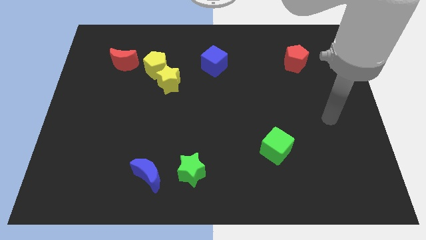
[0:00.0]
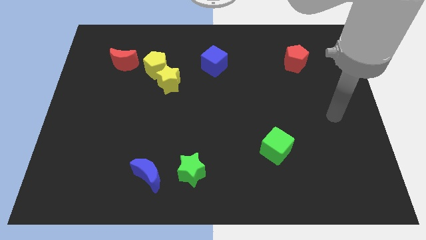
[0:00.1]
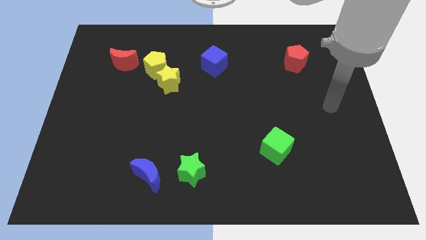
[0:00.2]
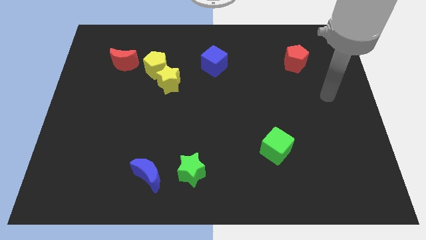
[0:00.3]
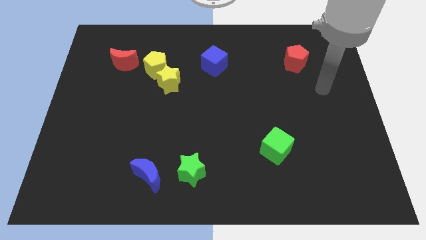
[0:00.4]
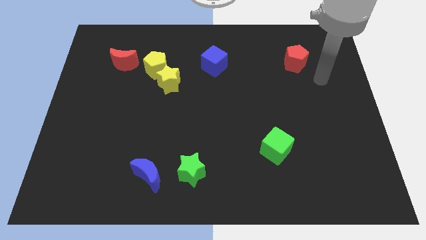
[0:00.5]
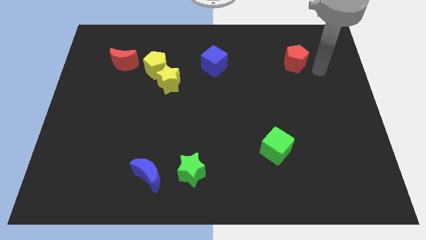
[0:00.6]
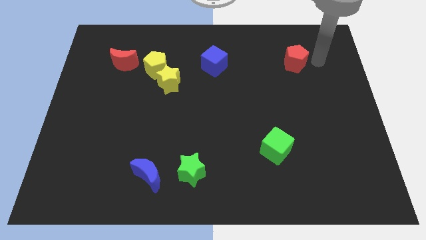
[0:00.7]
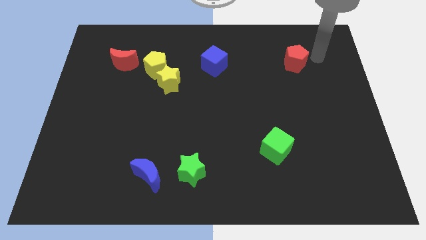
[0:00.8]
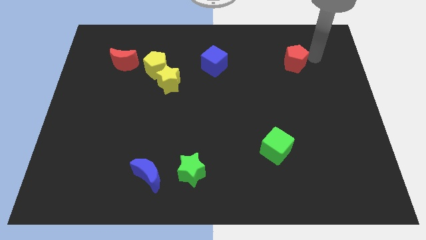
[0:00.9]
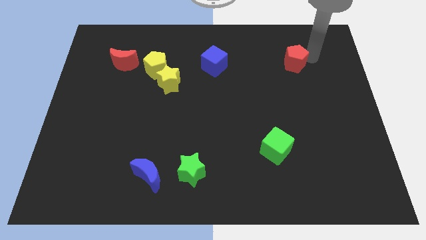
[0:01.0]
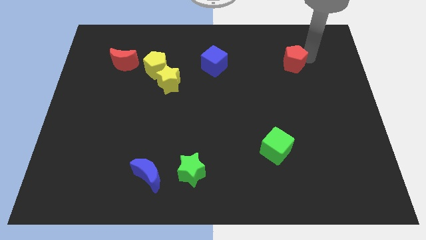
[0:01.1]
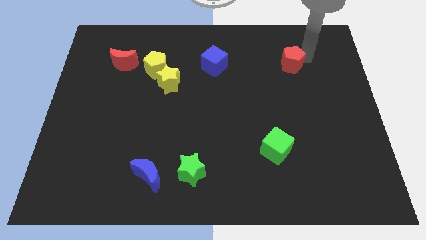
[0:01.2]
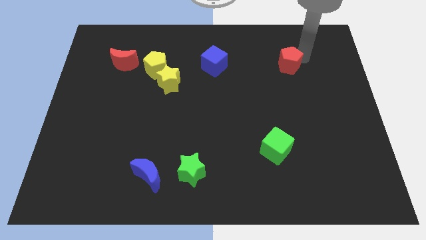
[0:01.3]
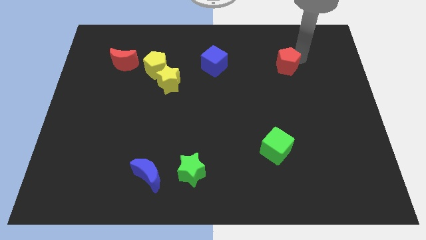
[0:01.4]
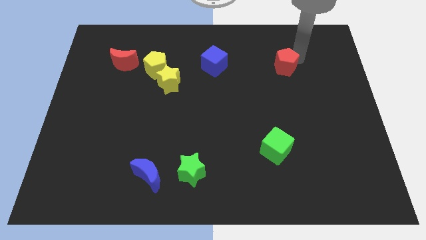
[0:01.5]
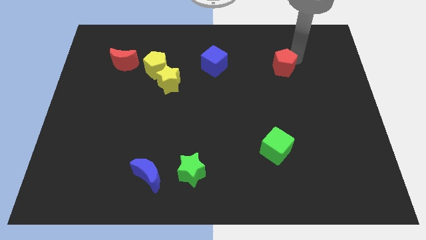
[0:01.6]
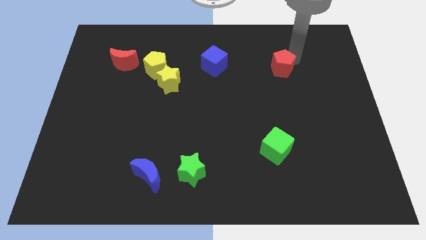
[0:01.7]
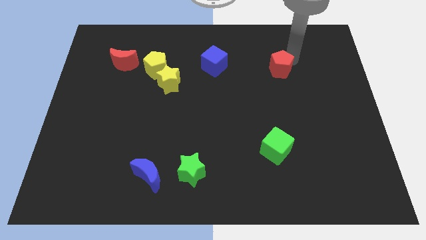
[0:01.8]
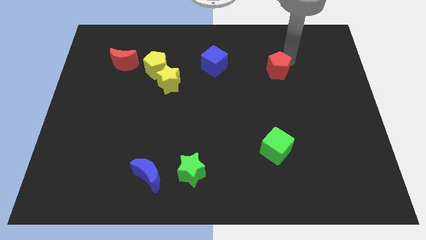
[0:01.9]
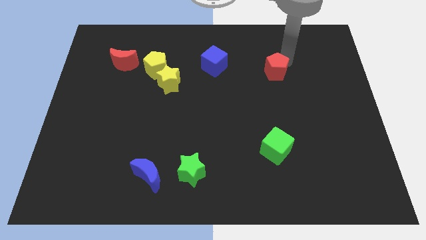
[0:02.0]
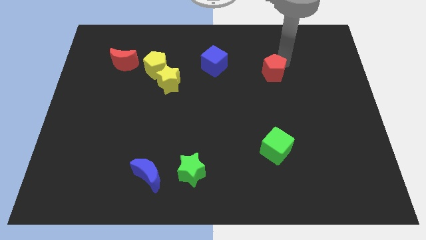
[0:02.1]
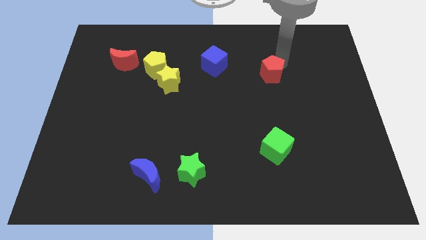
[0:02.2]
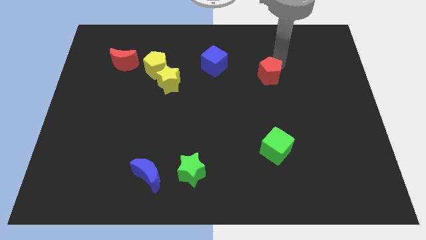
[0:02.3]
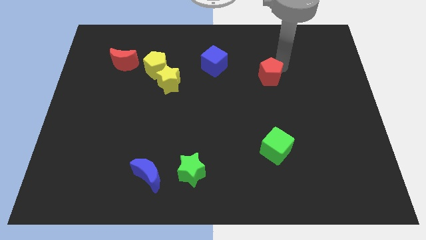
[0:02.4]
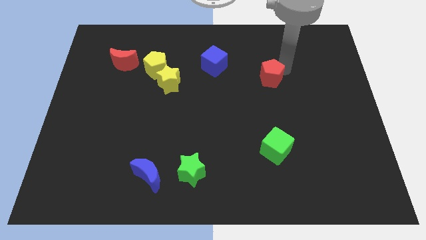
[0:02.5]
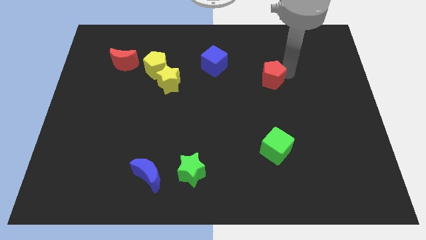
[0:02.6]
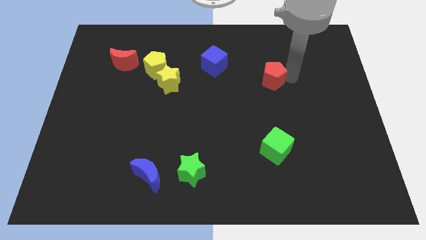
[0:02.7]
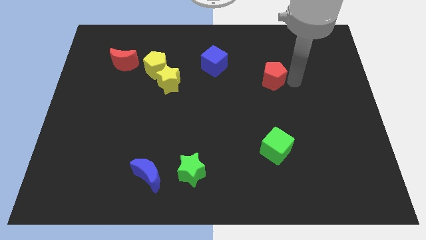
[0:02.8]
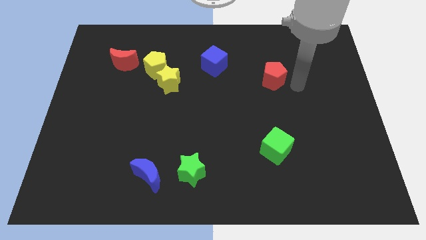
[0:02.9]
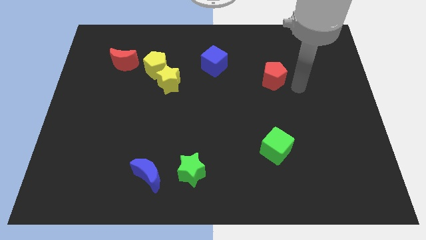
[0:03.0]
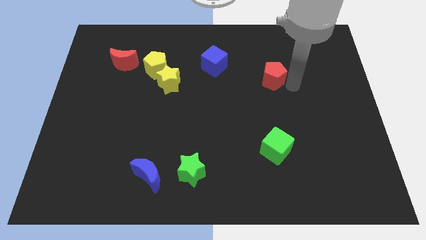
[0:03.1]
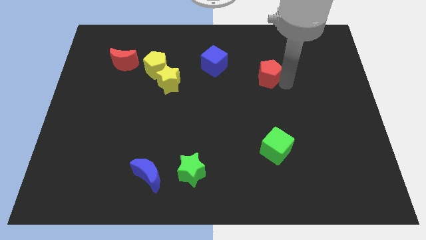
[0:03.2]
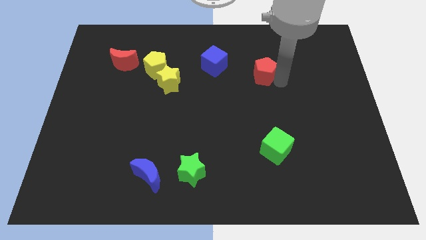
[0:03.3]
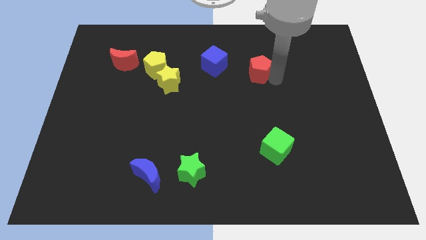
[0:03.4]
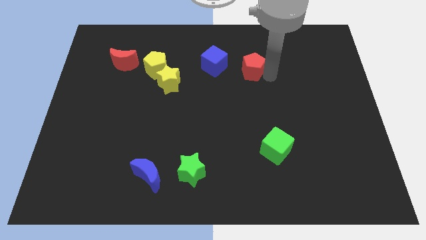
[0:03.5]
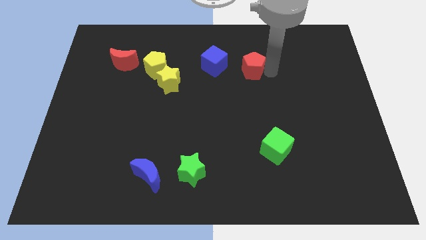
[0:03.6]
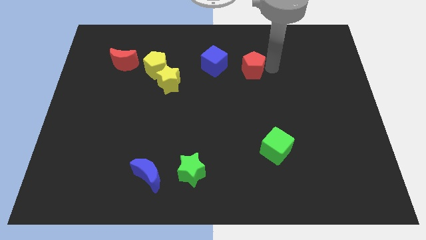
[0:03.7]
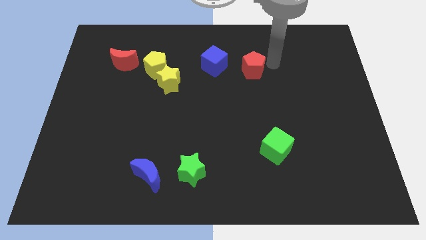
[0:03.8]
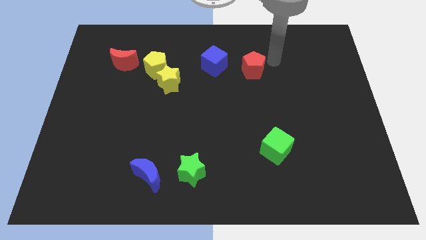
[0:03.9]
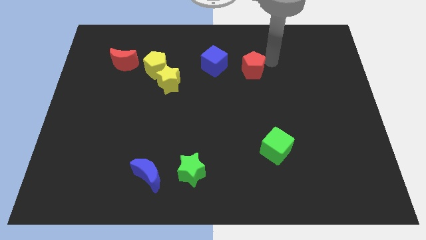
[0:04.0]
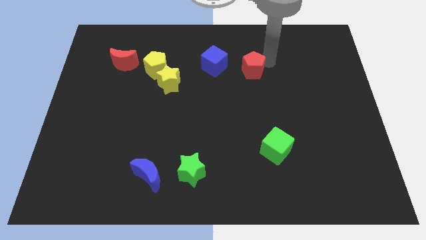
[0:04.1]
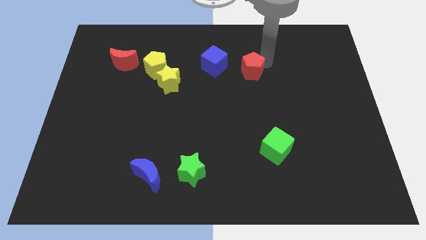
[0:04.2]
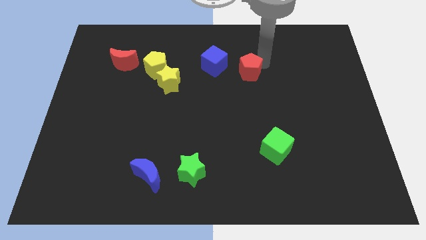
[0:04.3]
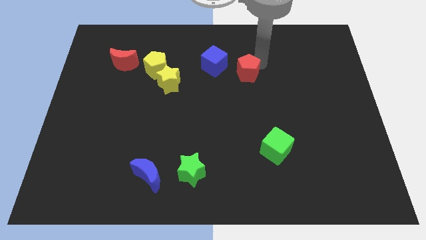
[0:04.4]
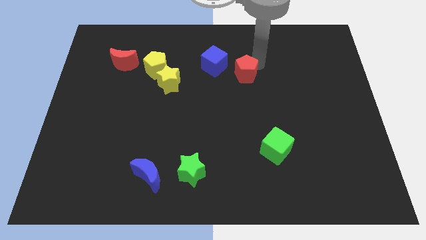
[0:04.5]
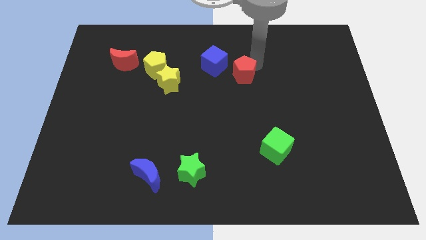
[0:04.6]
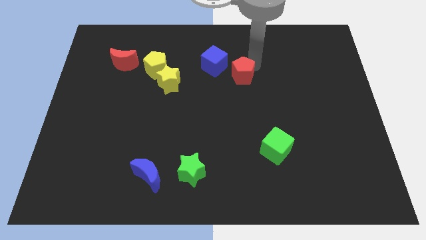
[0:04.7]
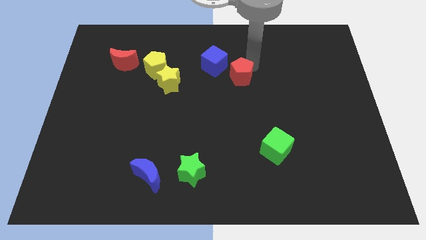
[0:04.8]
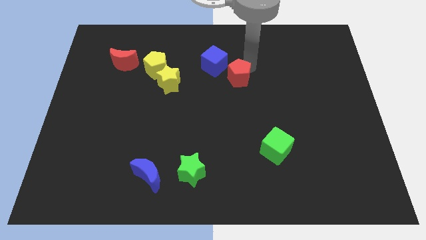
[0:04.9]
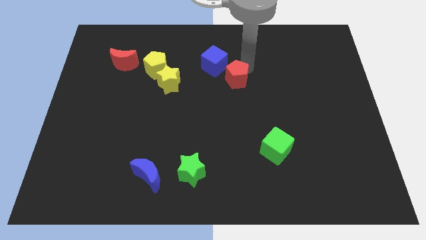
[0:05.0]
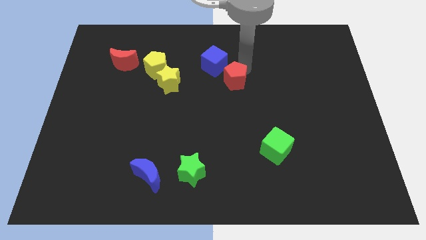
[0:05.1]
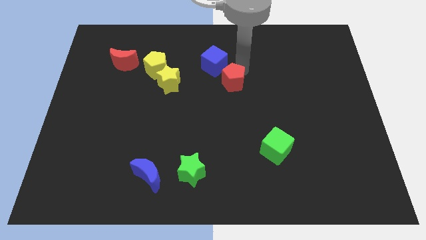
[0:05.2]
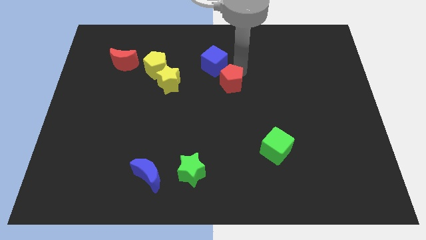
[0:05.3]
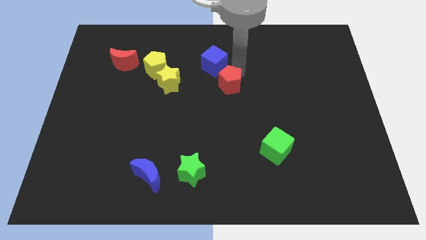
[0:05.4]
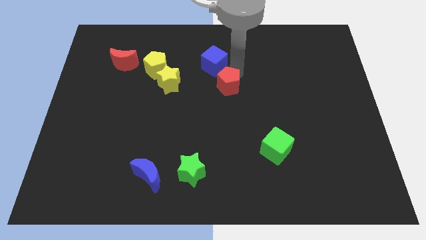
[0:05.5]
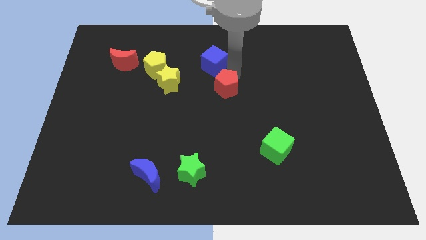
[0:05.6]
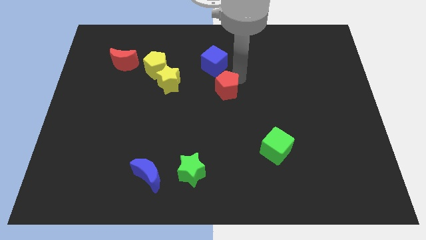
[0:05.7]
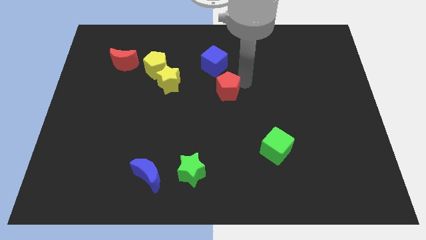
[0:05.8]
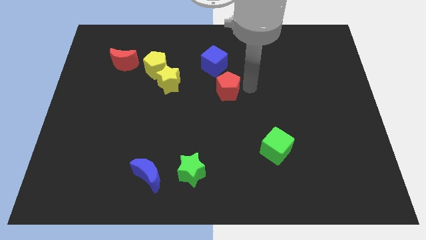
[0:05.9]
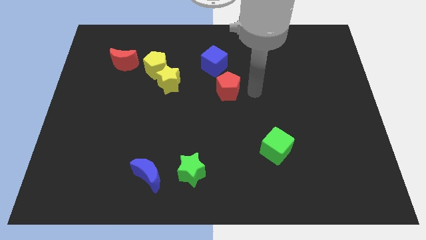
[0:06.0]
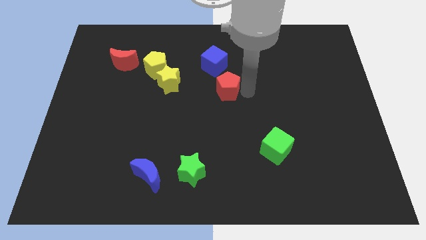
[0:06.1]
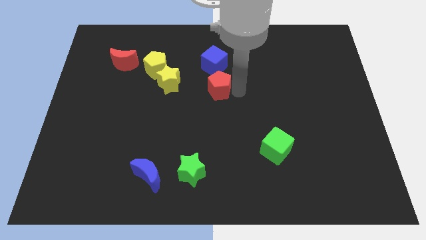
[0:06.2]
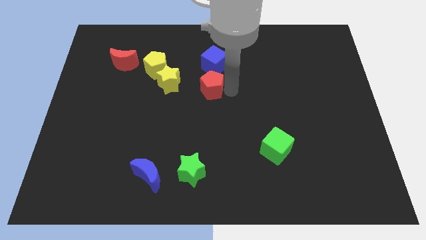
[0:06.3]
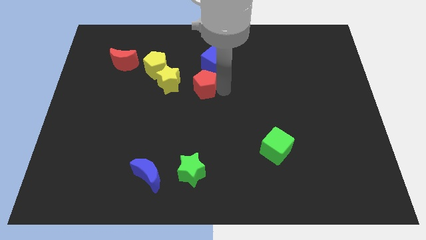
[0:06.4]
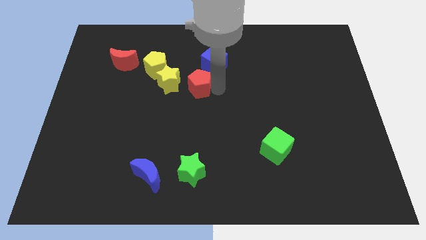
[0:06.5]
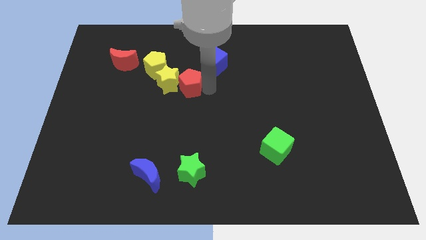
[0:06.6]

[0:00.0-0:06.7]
put the red pentagon next to the yellow star
